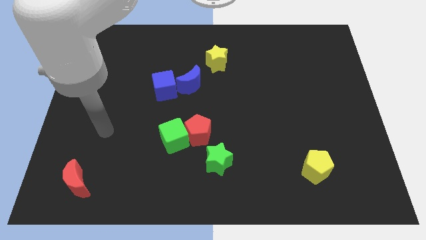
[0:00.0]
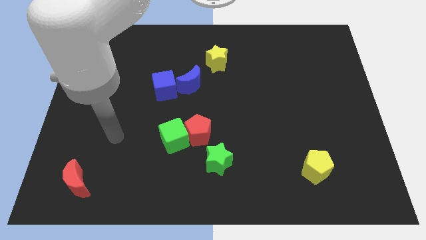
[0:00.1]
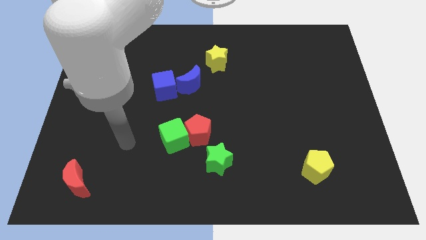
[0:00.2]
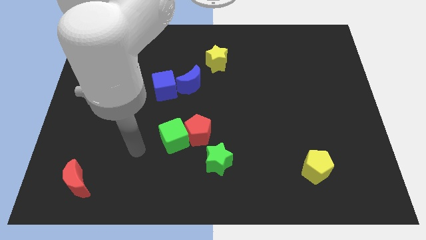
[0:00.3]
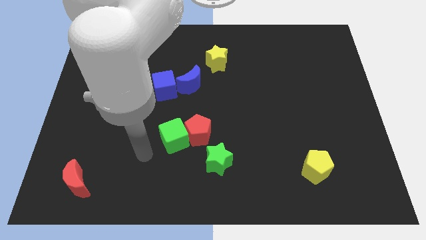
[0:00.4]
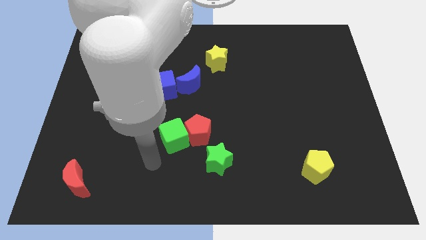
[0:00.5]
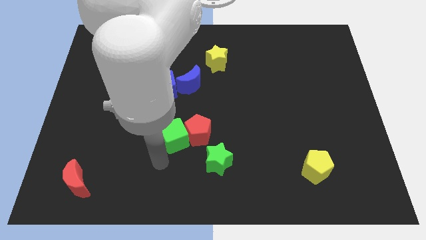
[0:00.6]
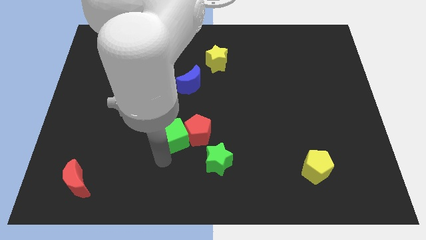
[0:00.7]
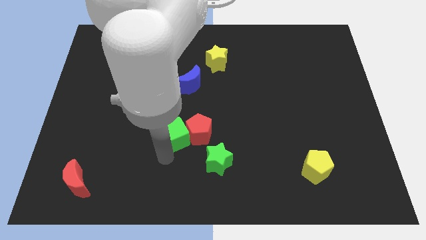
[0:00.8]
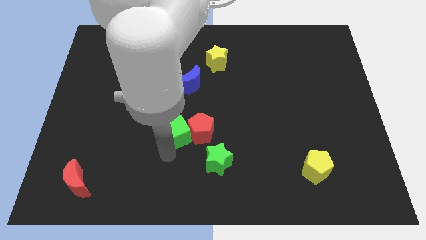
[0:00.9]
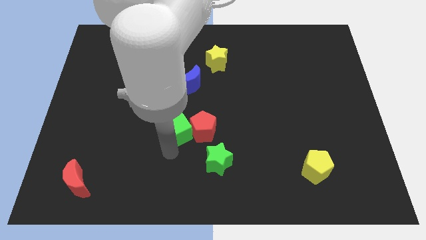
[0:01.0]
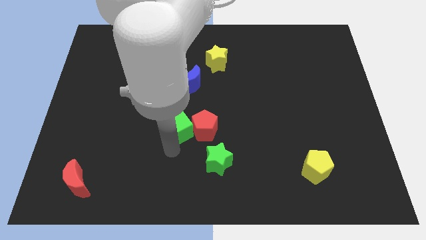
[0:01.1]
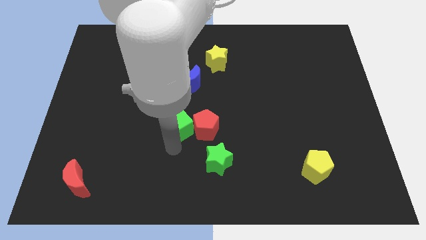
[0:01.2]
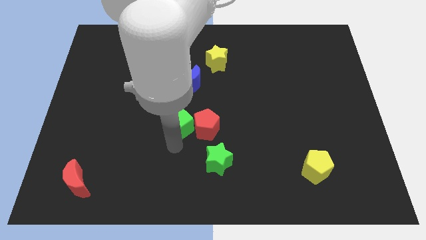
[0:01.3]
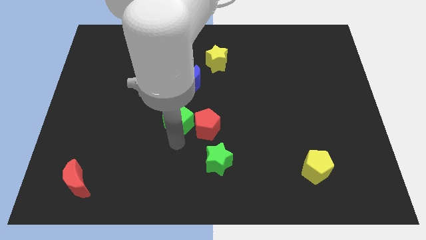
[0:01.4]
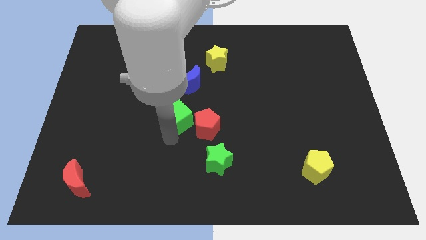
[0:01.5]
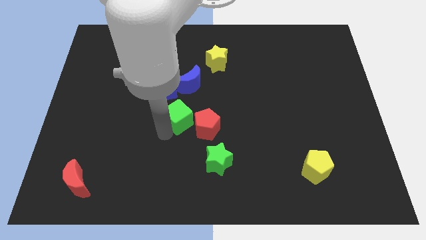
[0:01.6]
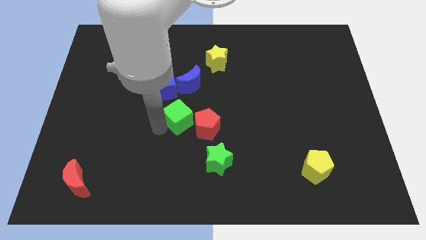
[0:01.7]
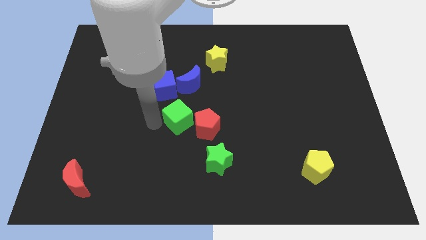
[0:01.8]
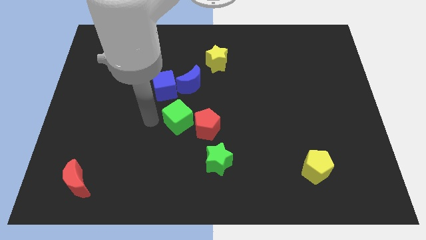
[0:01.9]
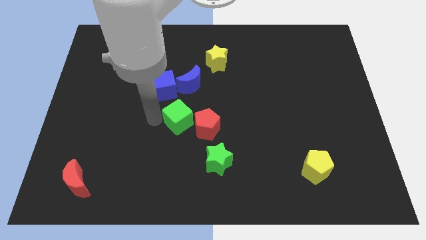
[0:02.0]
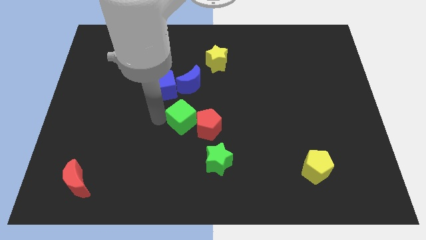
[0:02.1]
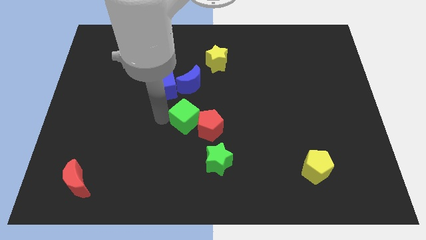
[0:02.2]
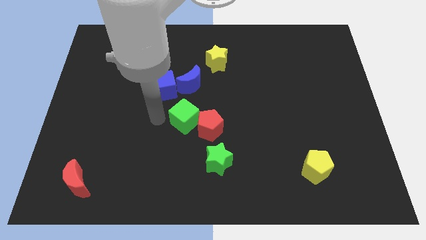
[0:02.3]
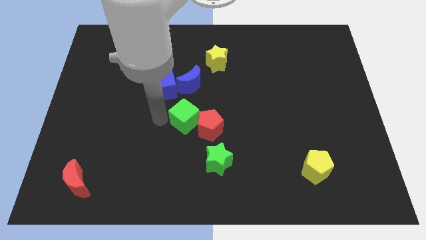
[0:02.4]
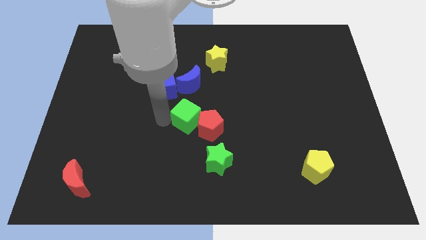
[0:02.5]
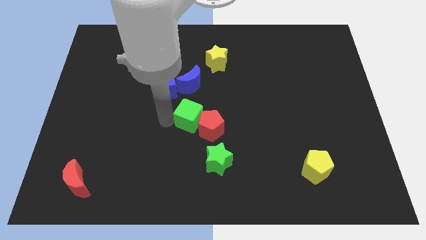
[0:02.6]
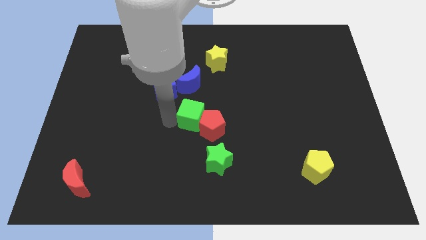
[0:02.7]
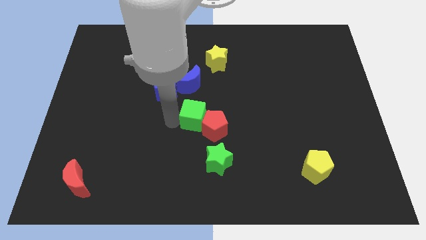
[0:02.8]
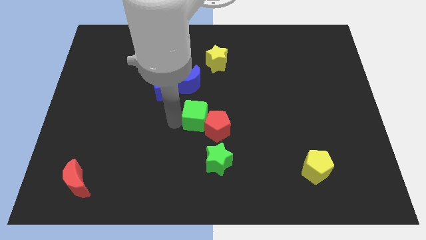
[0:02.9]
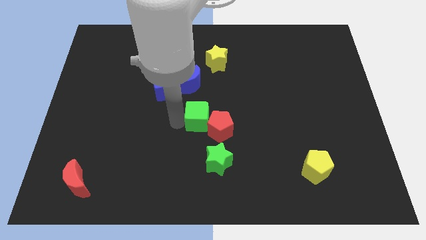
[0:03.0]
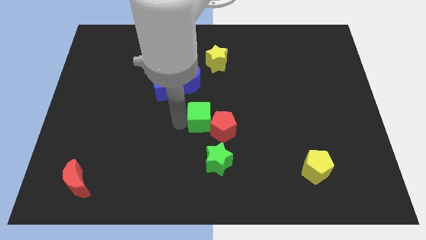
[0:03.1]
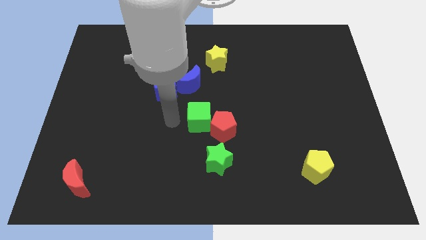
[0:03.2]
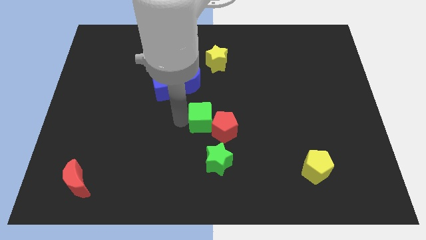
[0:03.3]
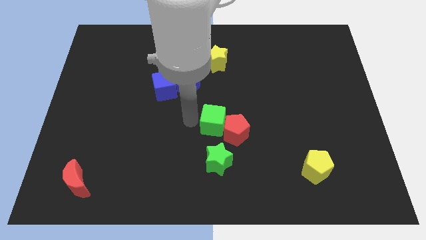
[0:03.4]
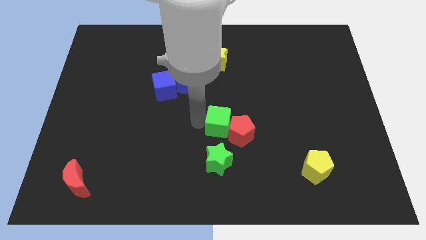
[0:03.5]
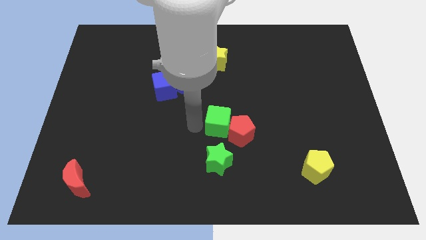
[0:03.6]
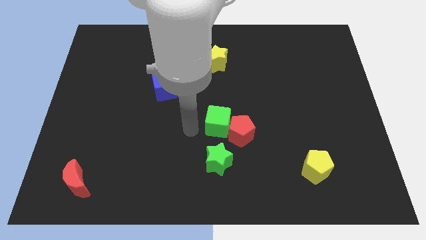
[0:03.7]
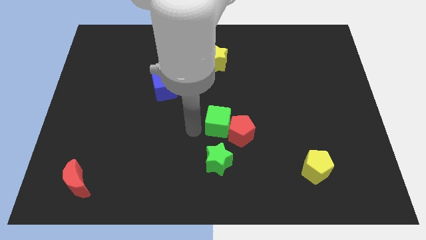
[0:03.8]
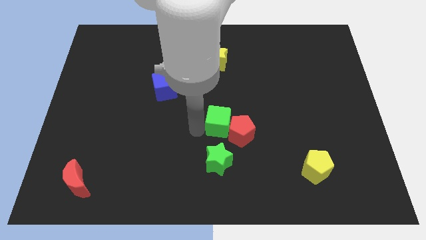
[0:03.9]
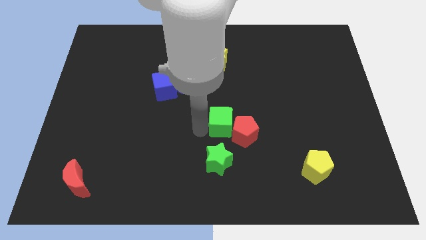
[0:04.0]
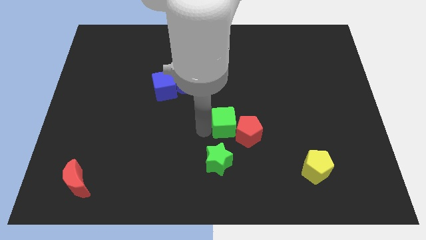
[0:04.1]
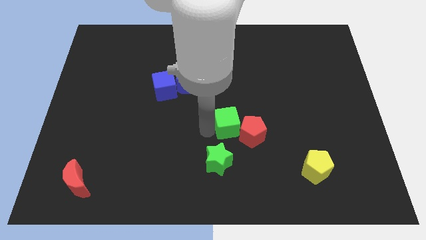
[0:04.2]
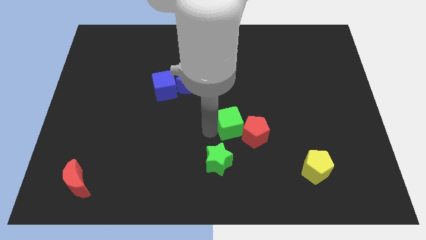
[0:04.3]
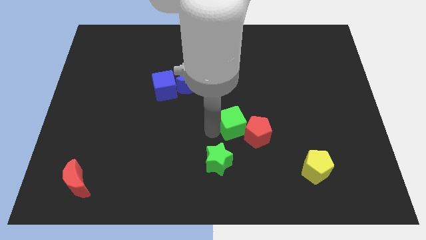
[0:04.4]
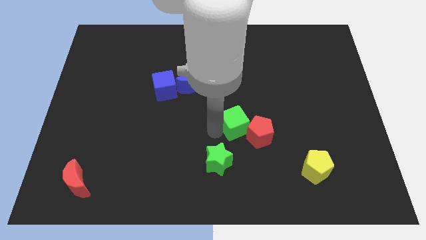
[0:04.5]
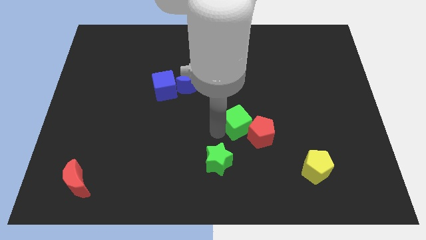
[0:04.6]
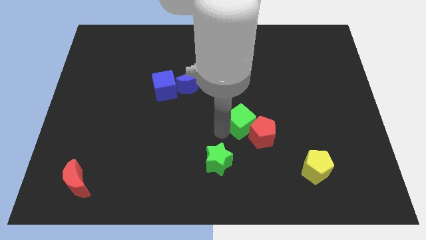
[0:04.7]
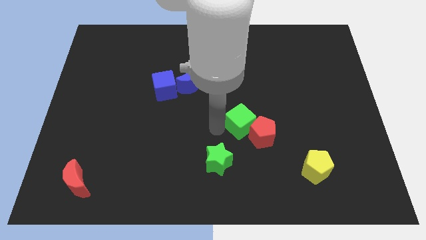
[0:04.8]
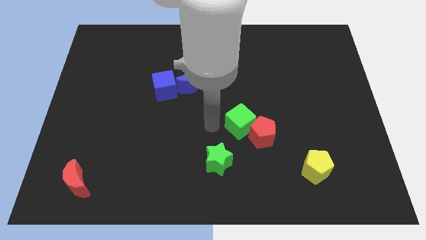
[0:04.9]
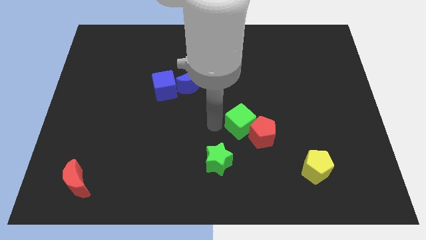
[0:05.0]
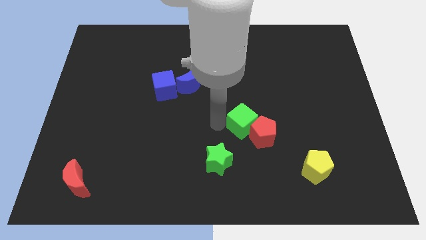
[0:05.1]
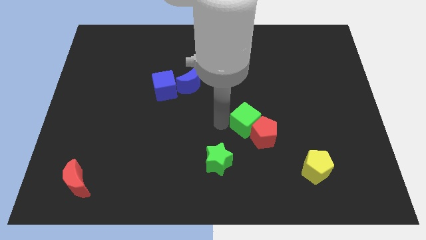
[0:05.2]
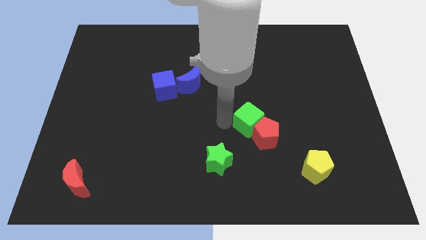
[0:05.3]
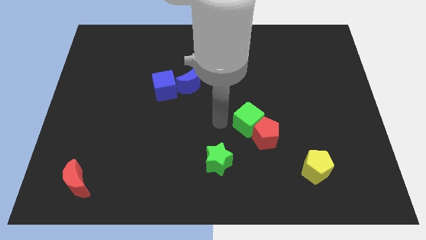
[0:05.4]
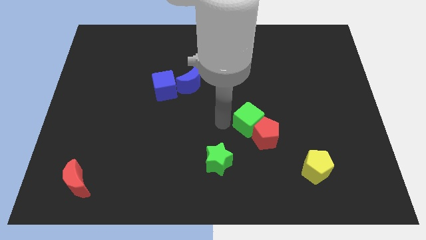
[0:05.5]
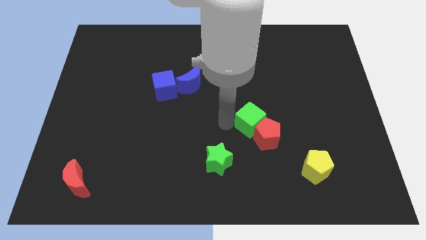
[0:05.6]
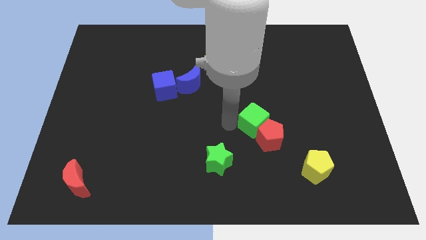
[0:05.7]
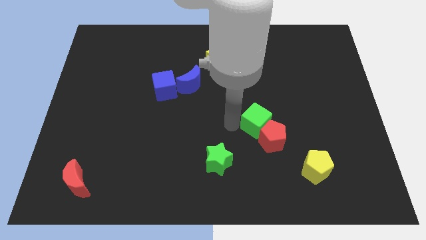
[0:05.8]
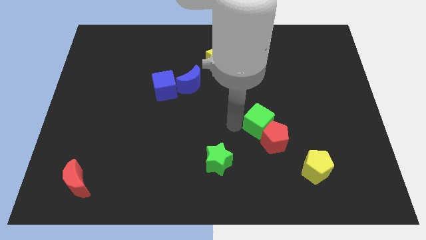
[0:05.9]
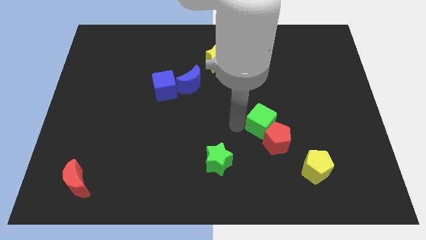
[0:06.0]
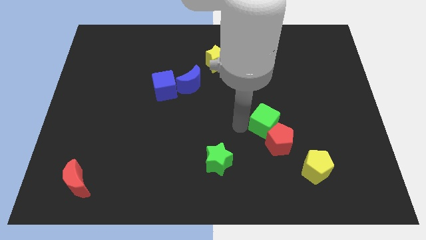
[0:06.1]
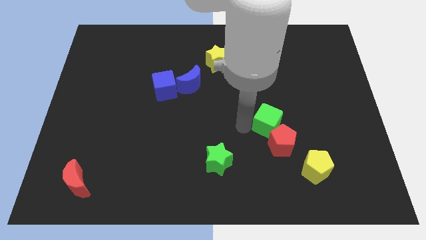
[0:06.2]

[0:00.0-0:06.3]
push the green cube to the right

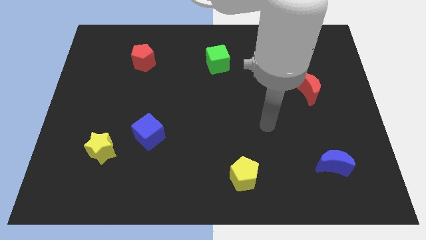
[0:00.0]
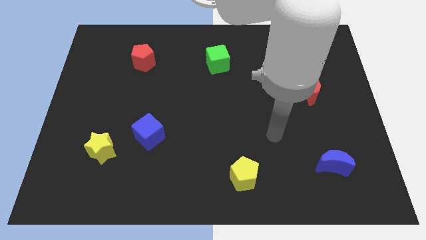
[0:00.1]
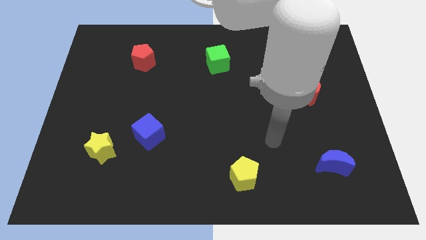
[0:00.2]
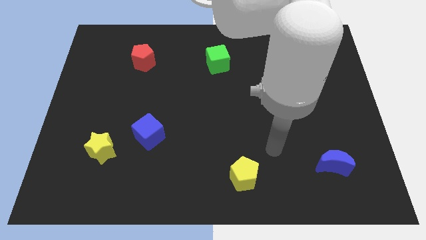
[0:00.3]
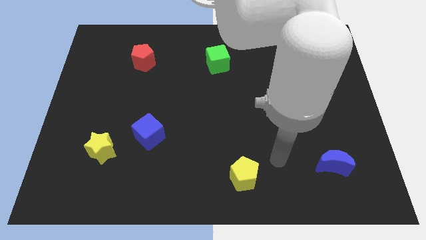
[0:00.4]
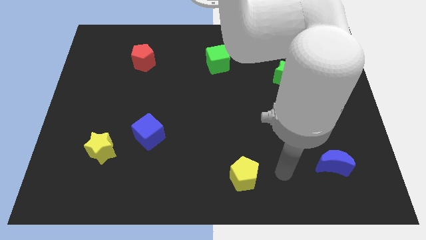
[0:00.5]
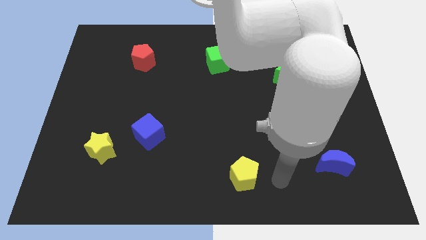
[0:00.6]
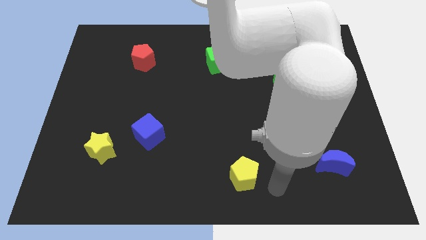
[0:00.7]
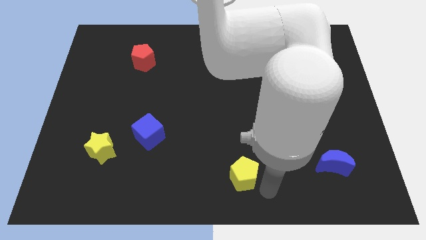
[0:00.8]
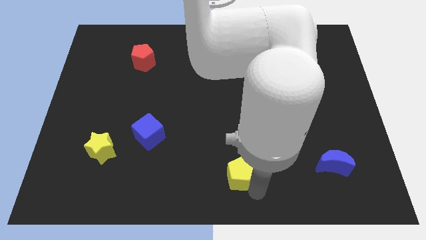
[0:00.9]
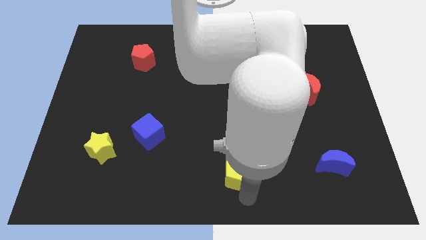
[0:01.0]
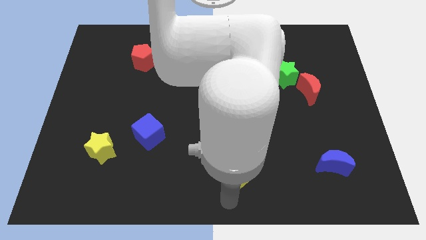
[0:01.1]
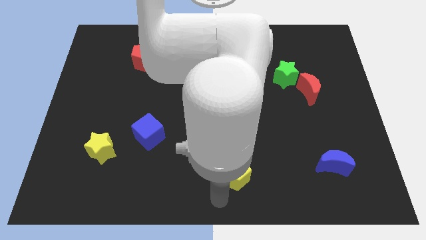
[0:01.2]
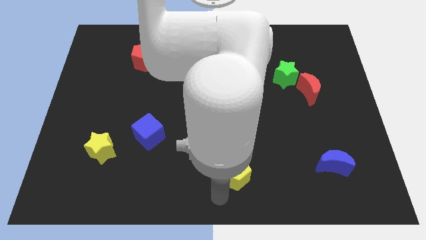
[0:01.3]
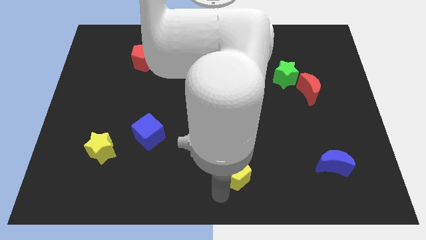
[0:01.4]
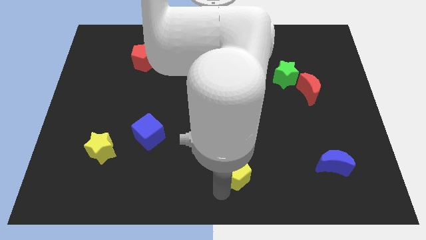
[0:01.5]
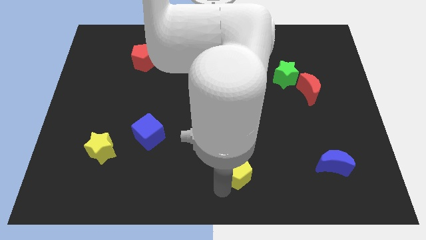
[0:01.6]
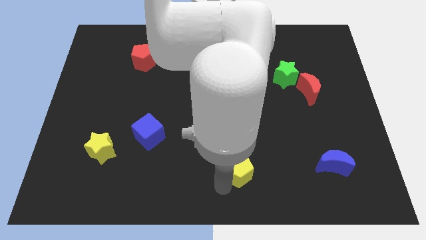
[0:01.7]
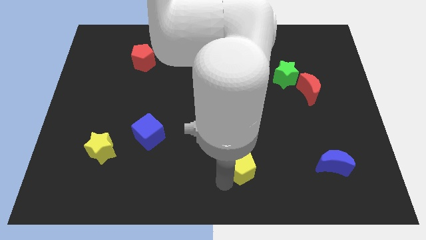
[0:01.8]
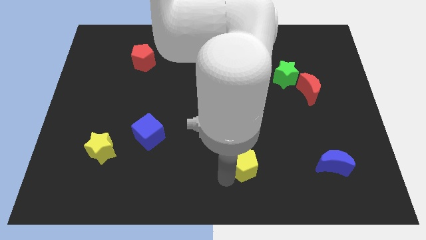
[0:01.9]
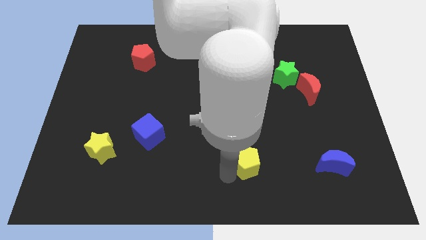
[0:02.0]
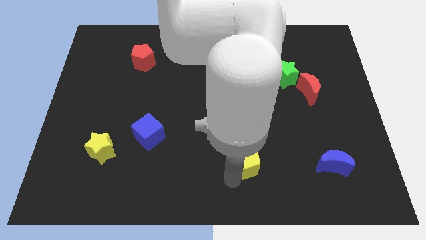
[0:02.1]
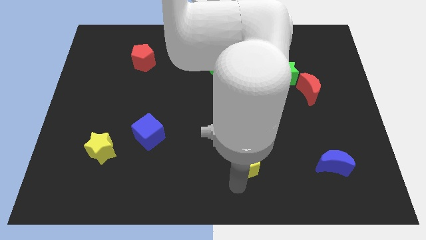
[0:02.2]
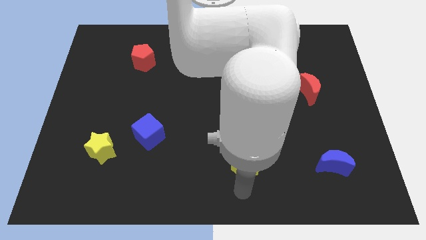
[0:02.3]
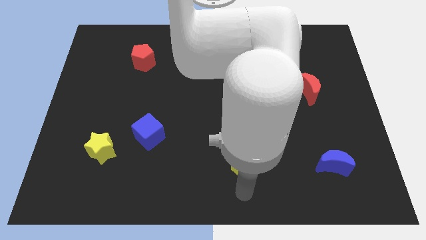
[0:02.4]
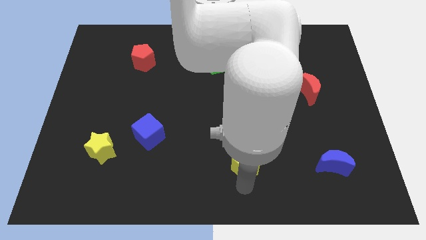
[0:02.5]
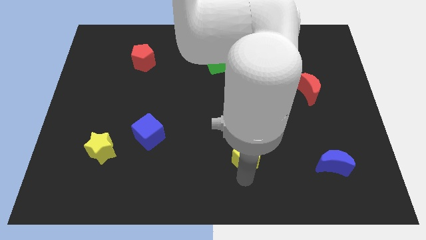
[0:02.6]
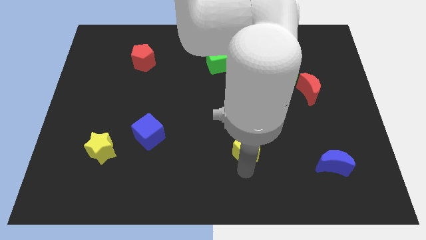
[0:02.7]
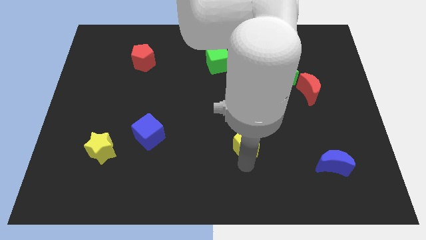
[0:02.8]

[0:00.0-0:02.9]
slightly slide the yellow pentagon upwards
